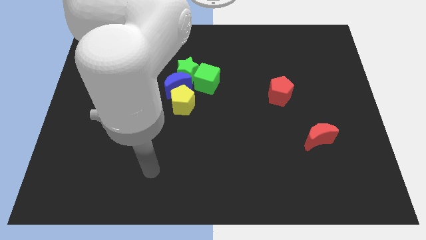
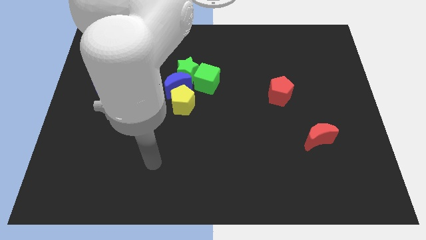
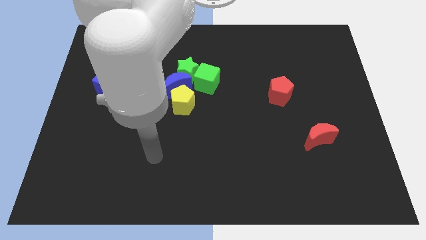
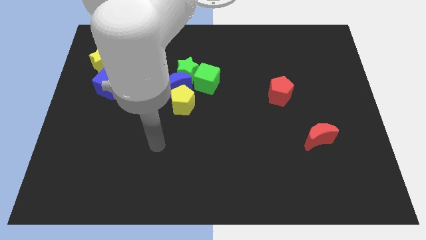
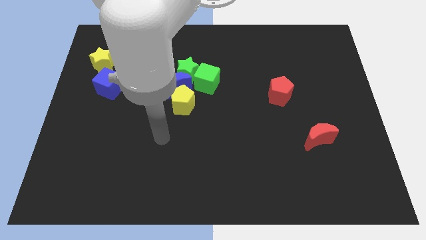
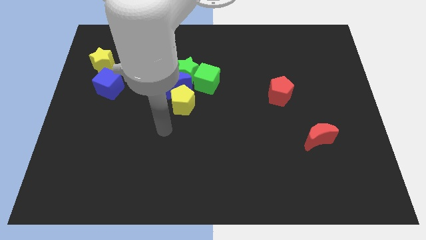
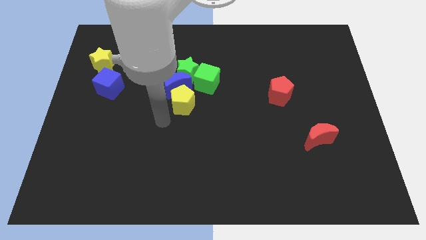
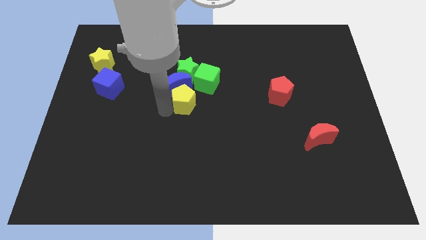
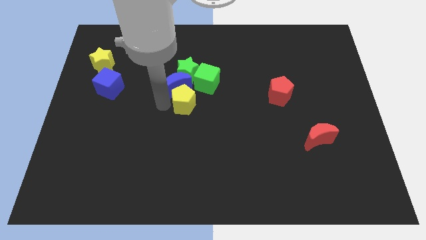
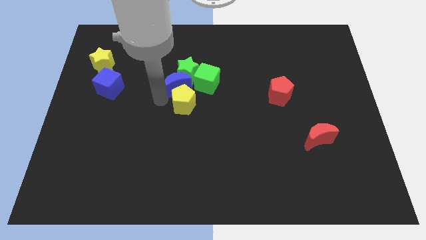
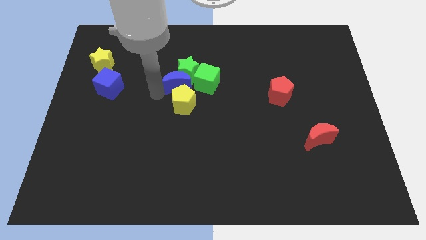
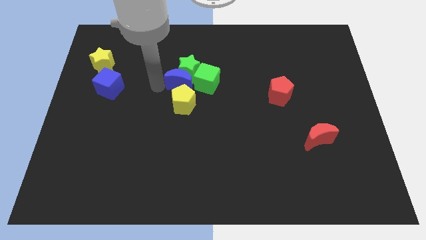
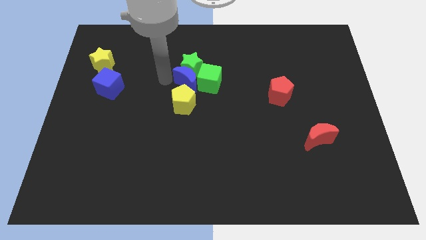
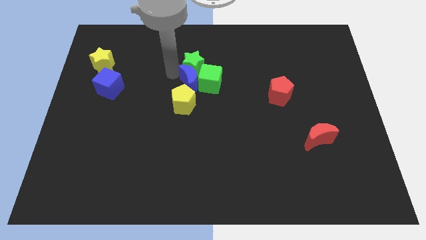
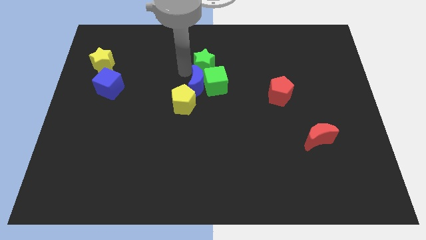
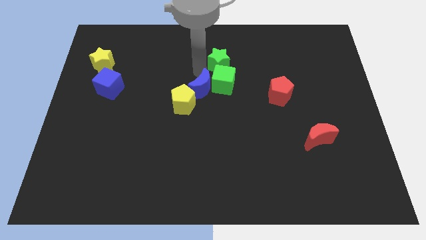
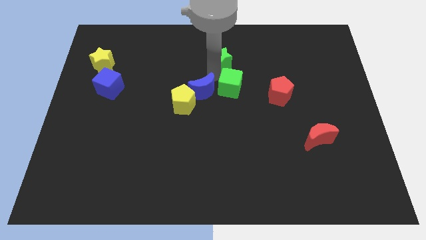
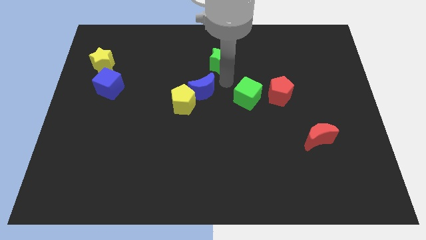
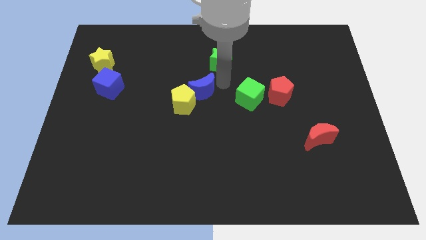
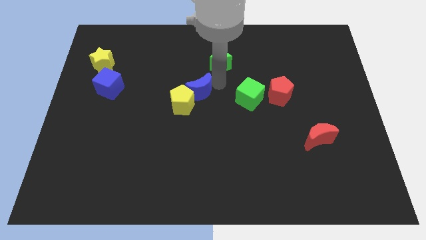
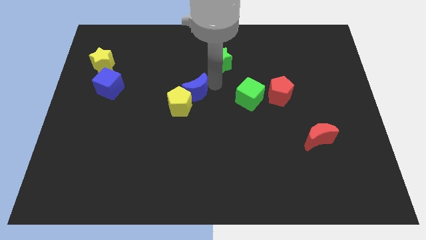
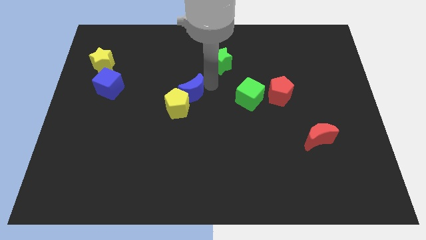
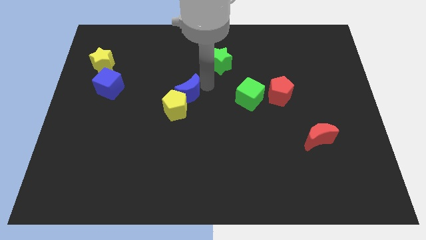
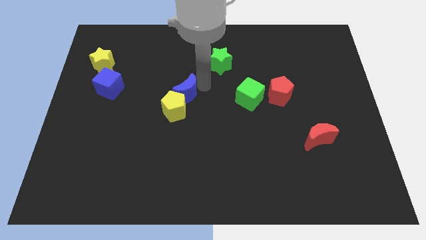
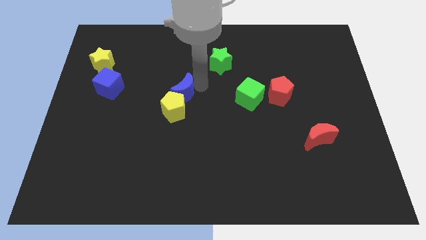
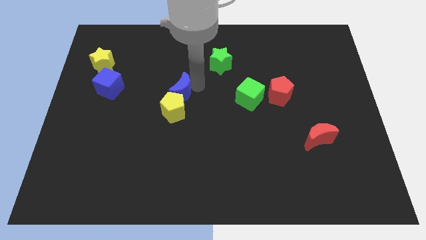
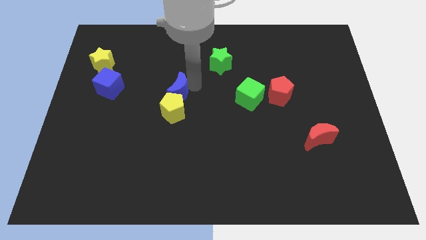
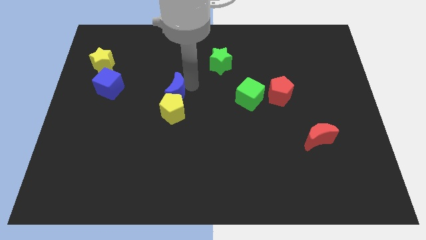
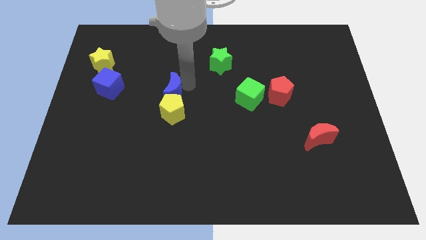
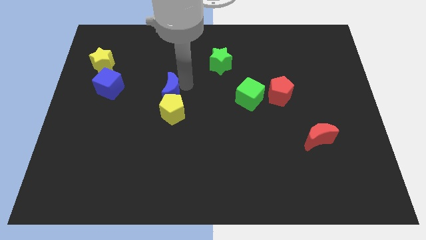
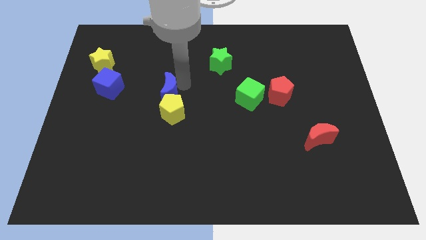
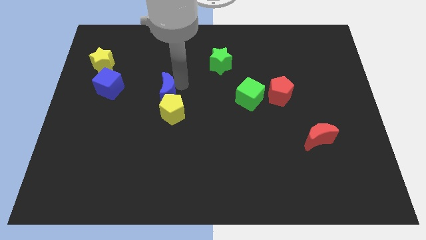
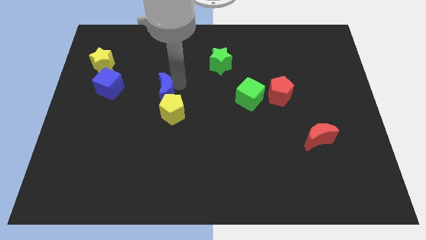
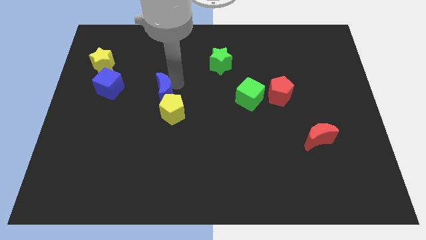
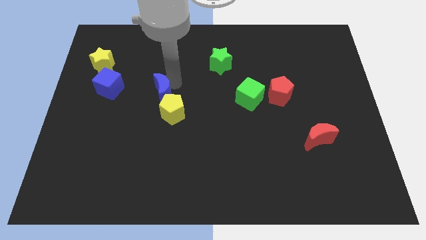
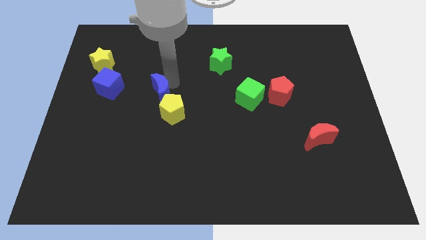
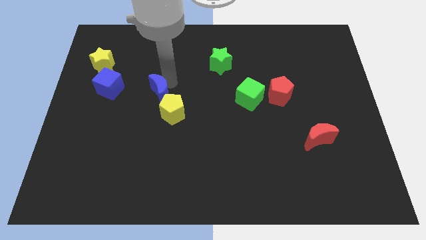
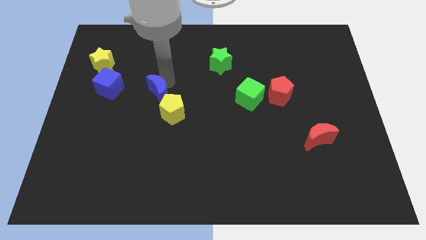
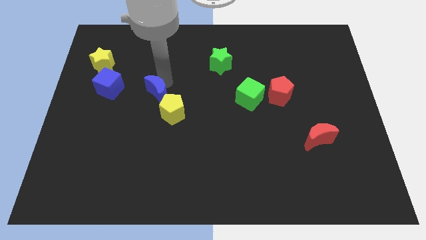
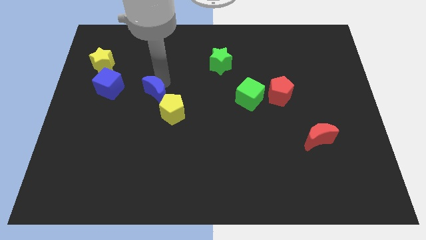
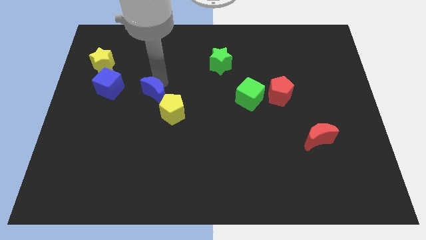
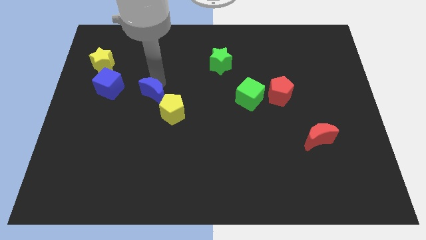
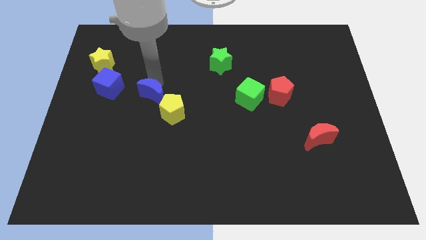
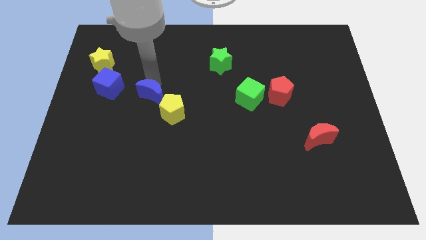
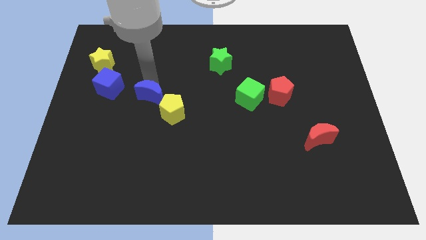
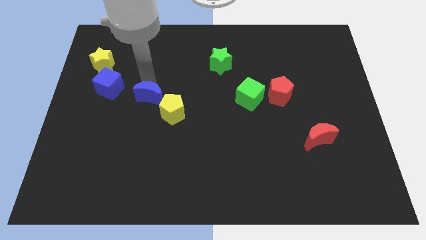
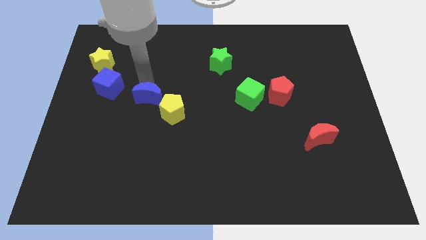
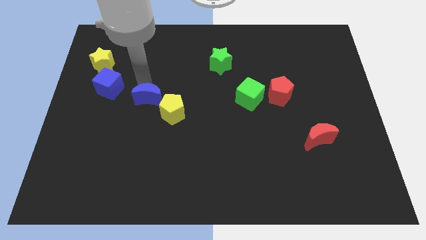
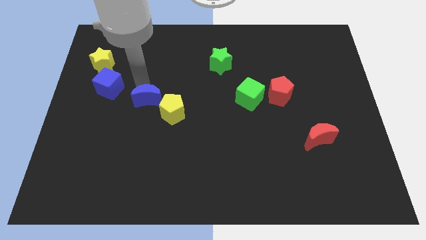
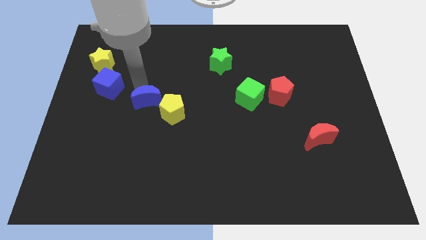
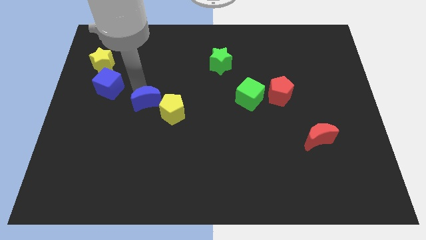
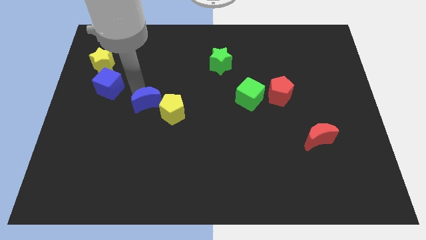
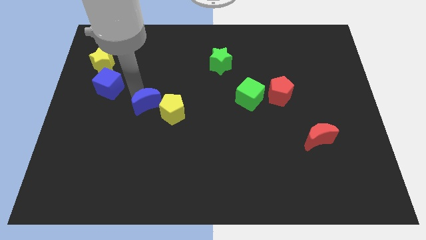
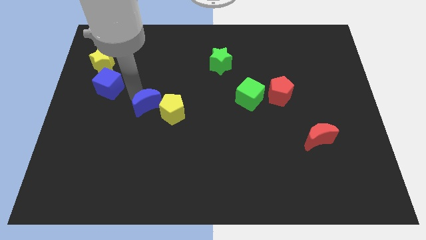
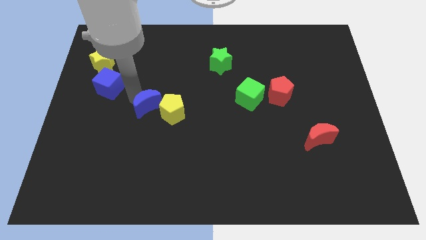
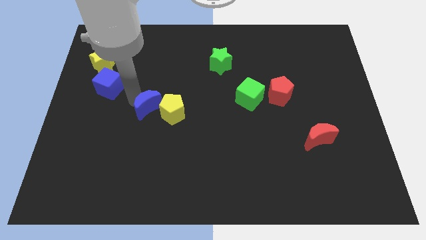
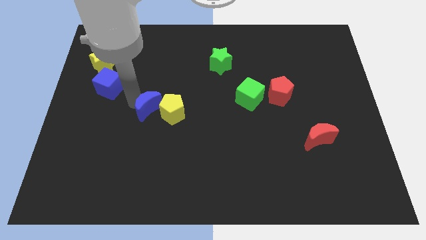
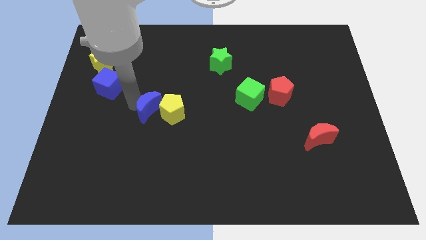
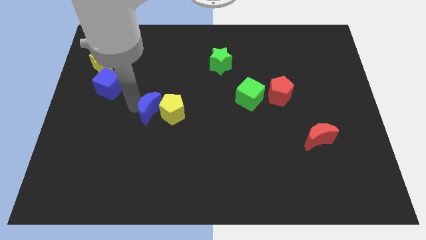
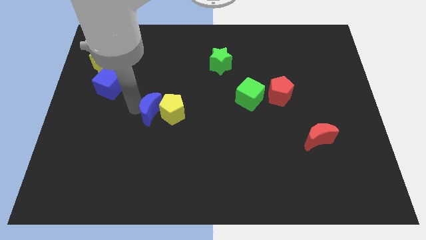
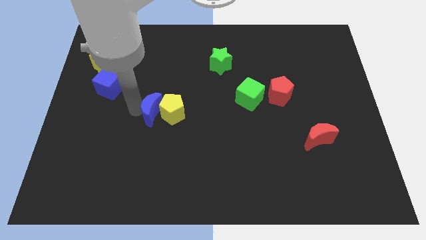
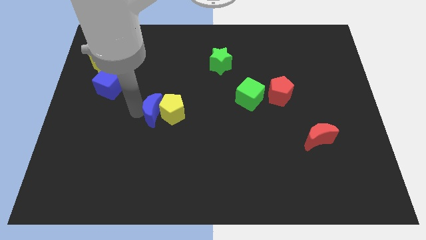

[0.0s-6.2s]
push the blue moon down slightly

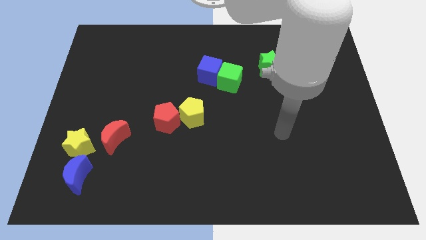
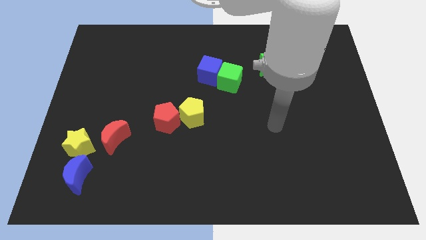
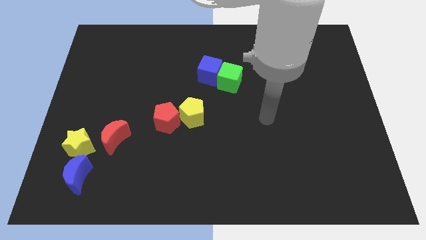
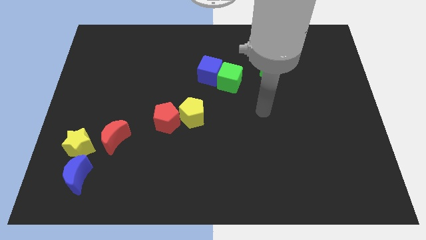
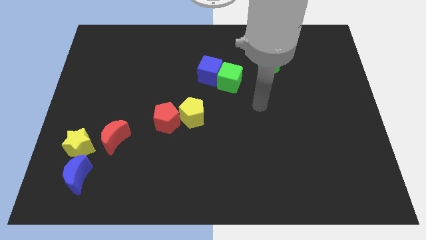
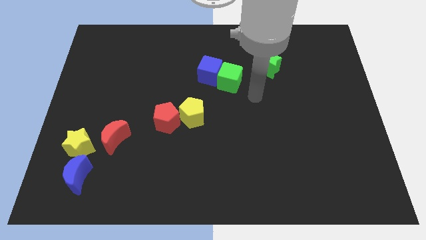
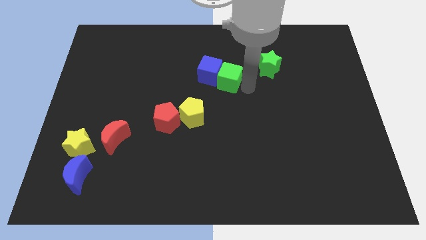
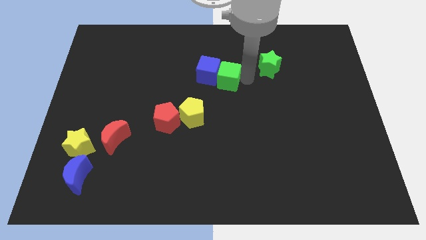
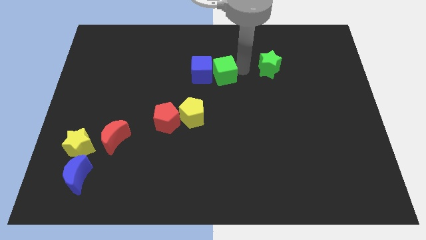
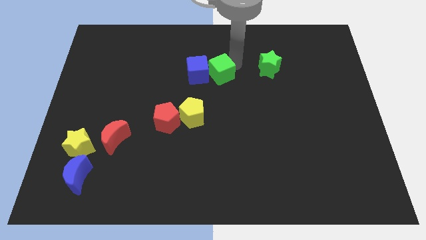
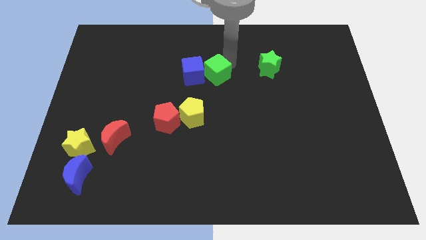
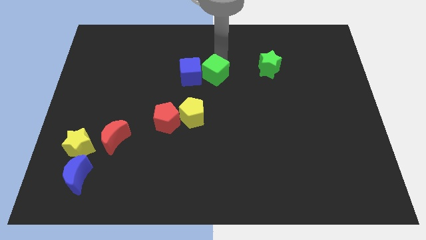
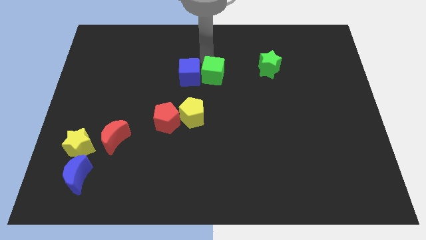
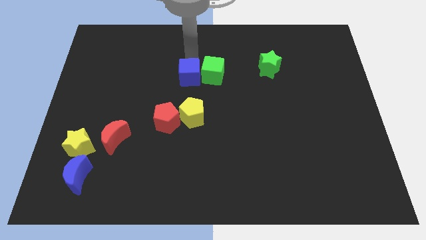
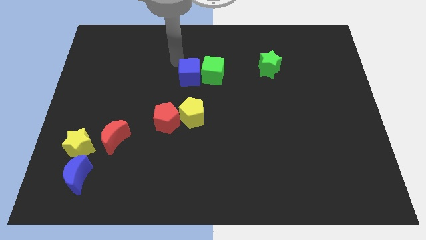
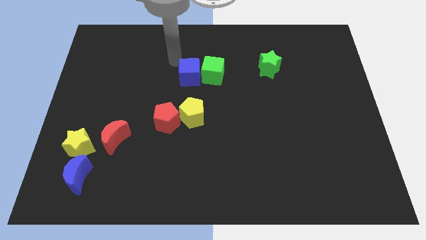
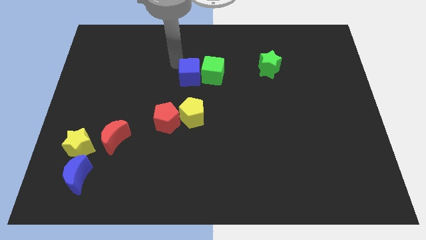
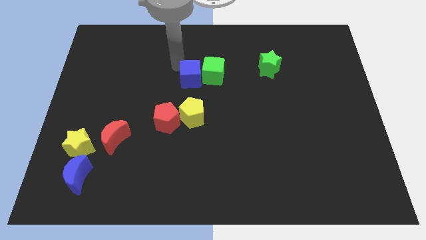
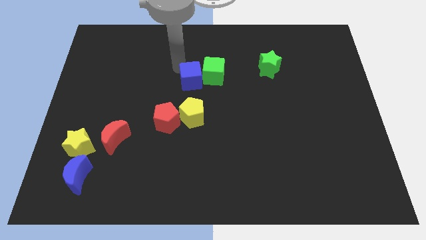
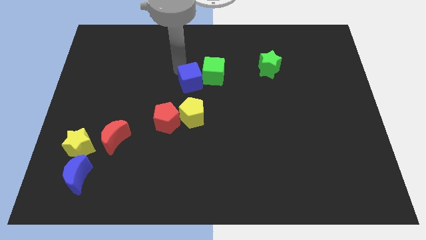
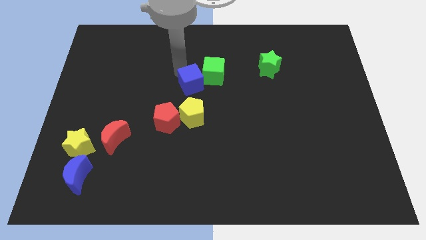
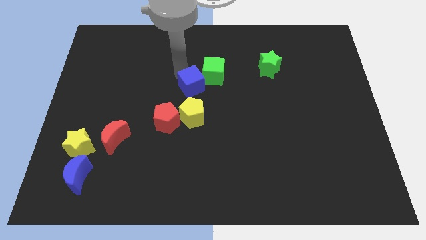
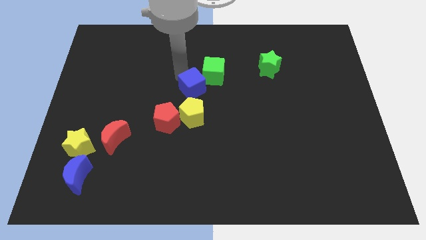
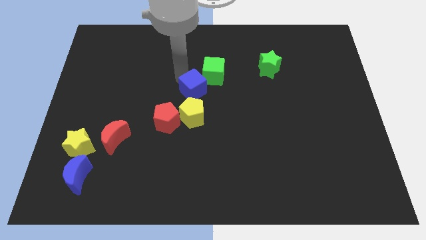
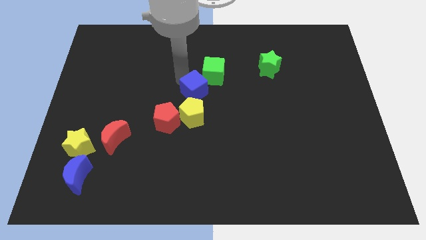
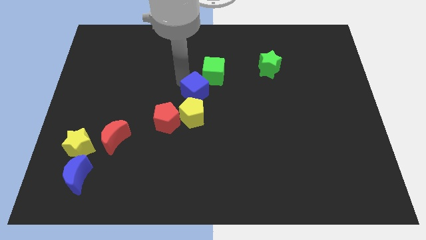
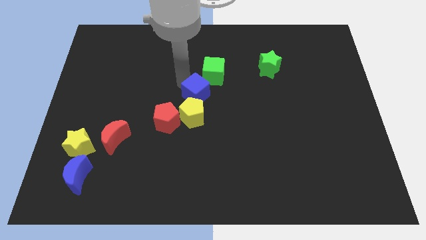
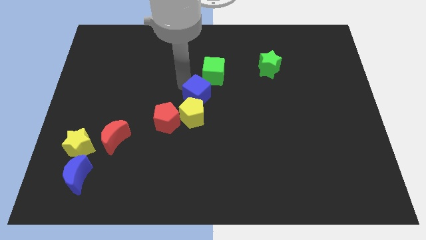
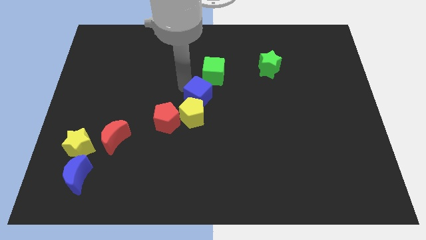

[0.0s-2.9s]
push the blue cube downwards somewhat
